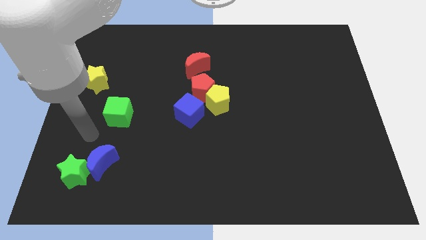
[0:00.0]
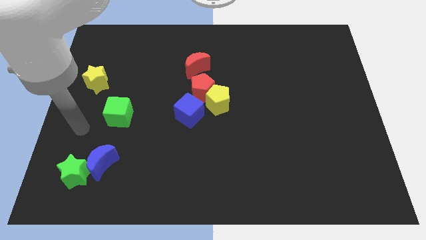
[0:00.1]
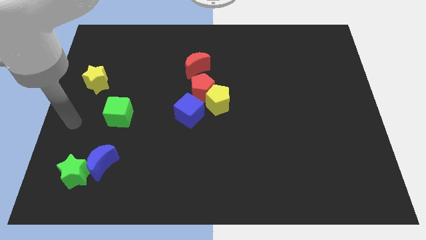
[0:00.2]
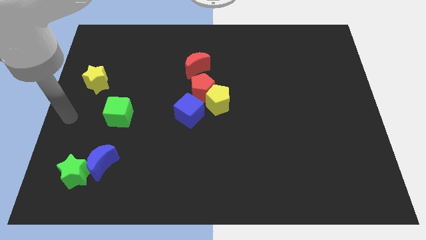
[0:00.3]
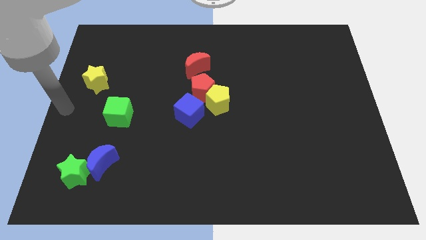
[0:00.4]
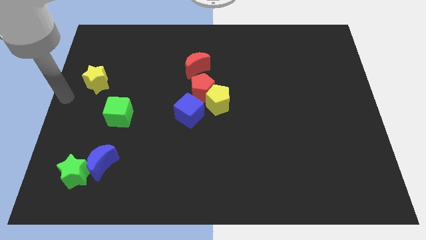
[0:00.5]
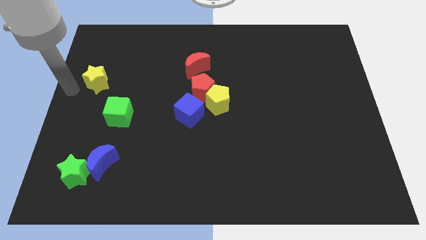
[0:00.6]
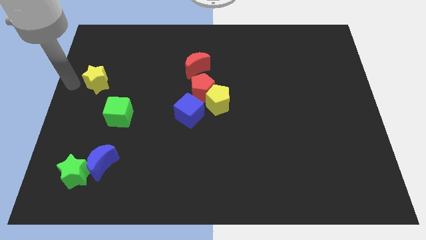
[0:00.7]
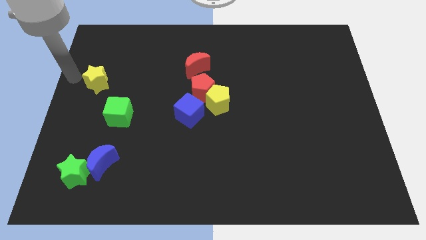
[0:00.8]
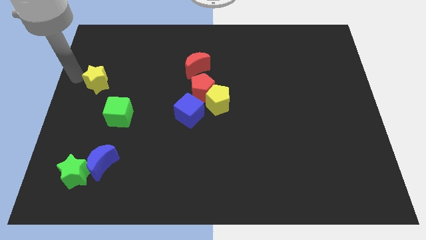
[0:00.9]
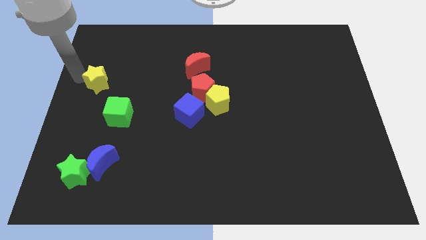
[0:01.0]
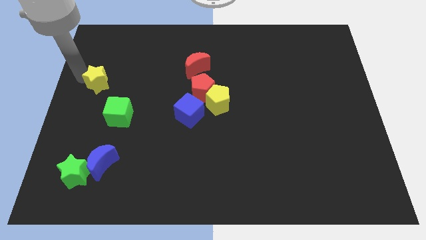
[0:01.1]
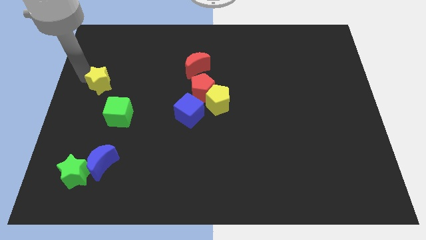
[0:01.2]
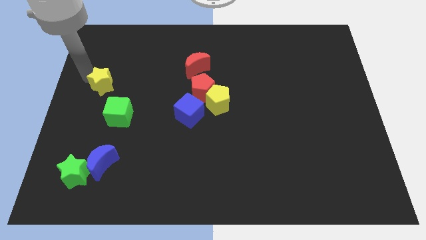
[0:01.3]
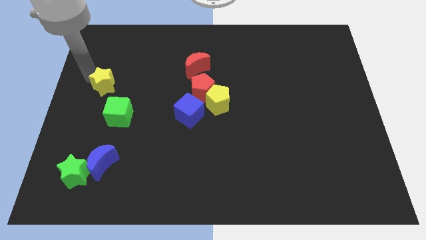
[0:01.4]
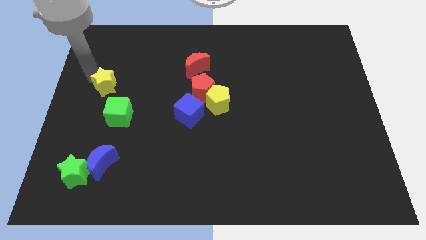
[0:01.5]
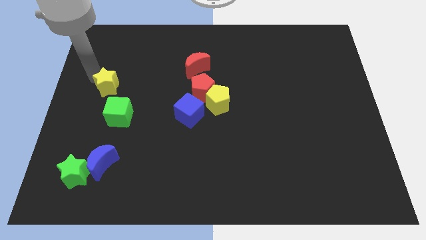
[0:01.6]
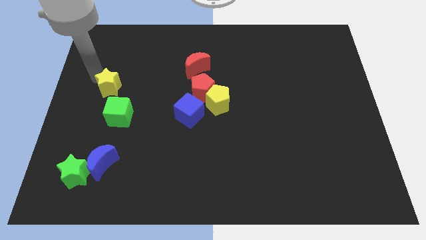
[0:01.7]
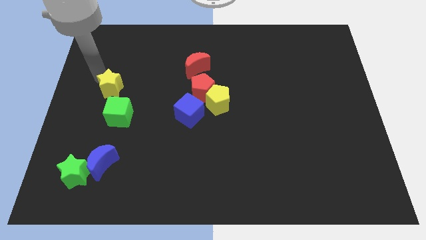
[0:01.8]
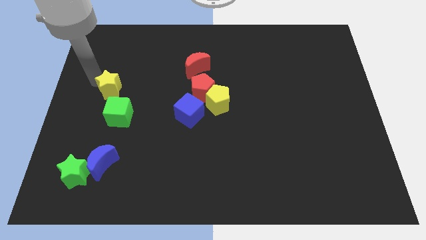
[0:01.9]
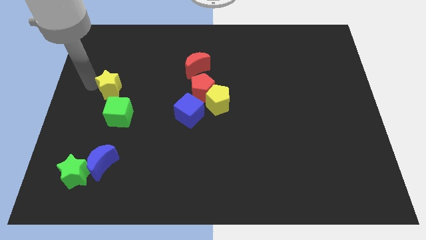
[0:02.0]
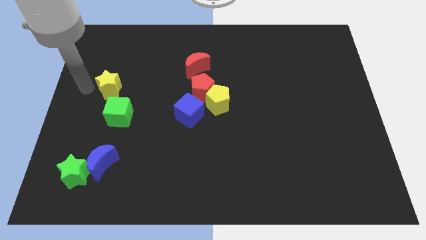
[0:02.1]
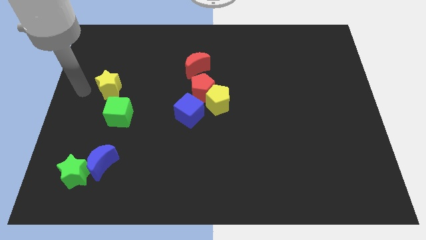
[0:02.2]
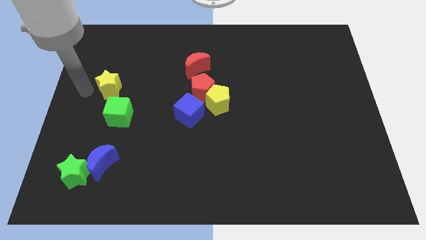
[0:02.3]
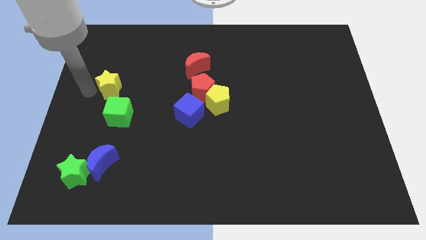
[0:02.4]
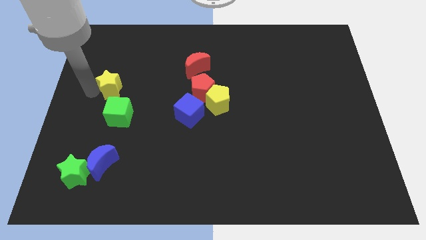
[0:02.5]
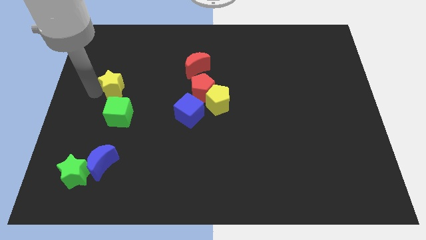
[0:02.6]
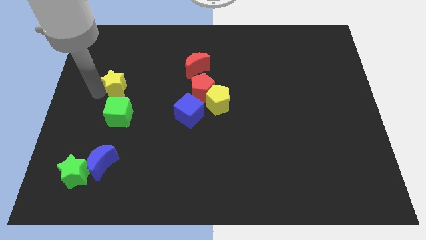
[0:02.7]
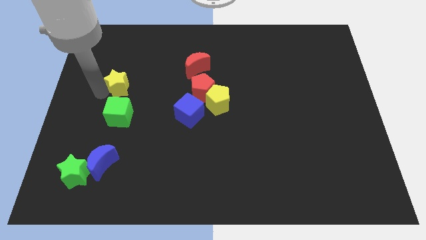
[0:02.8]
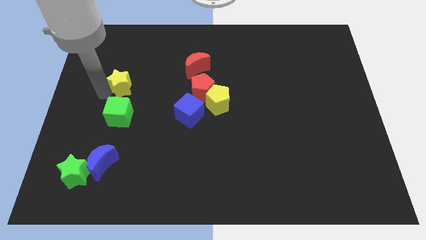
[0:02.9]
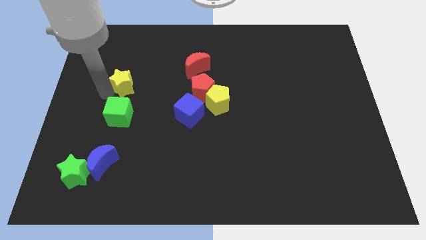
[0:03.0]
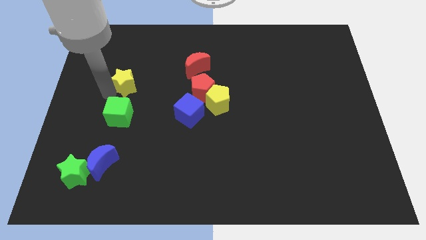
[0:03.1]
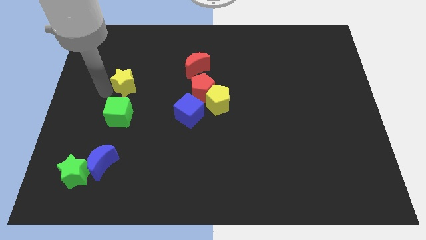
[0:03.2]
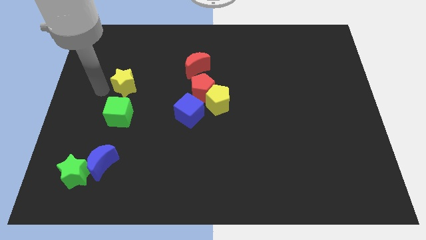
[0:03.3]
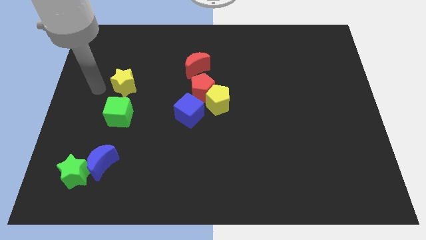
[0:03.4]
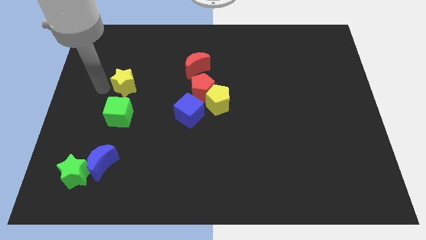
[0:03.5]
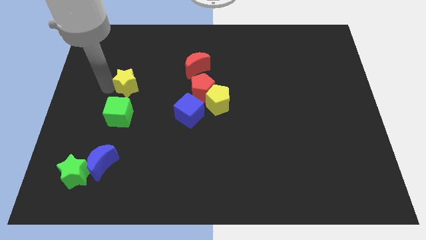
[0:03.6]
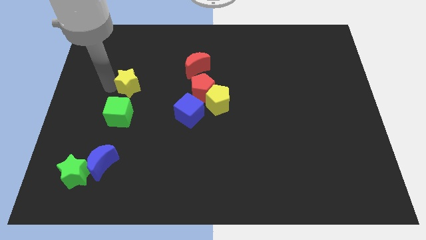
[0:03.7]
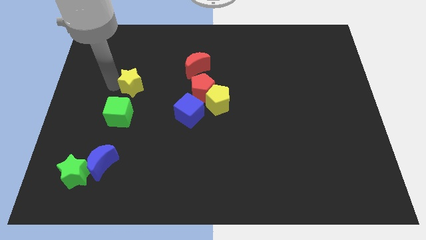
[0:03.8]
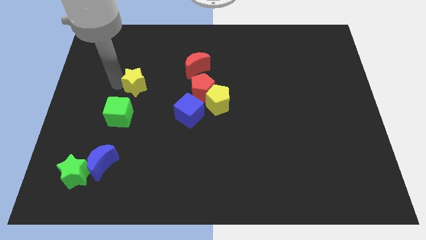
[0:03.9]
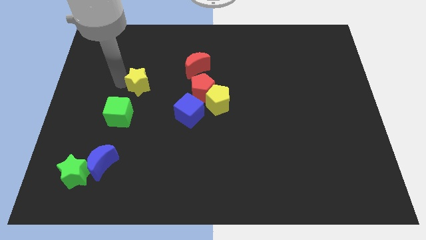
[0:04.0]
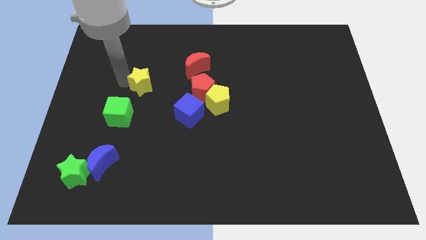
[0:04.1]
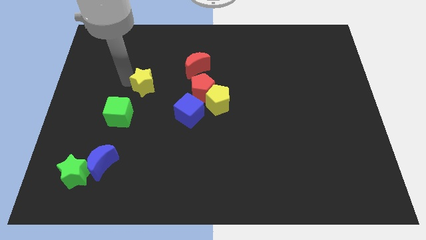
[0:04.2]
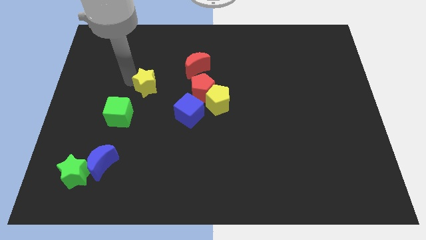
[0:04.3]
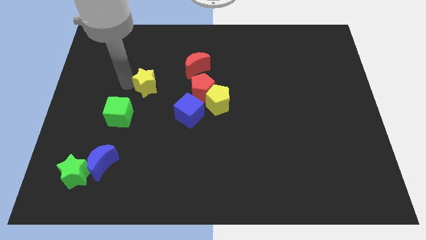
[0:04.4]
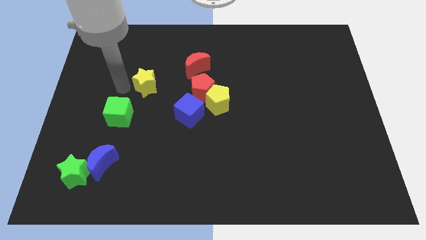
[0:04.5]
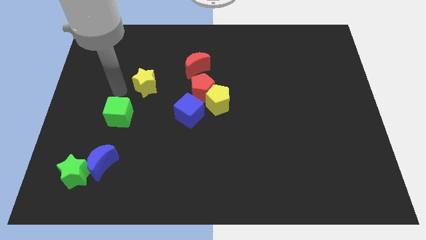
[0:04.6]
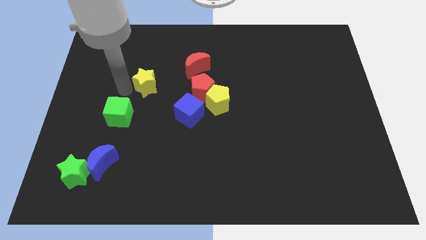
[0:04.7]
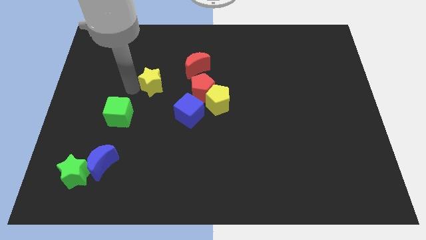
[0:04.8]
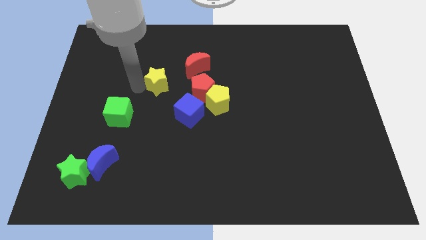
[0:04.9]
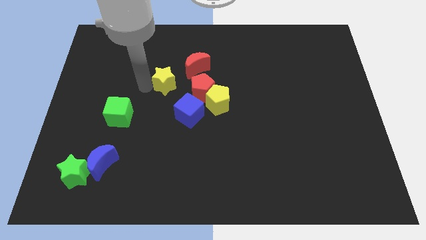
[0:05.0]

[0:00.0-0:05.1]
put the yellow star diagonally up and to the left of the red pentagon

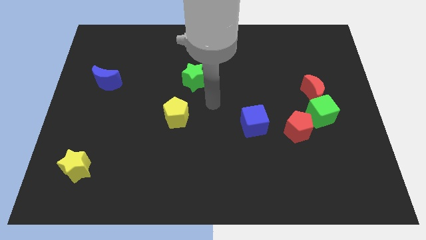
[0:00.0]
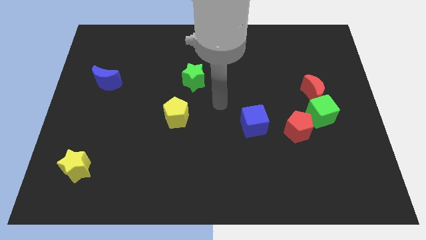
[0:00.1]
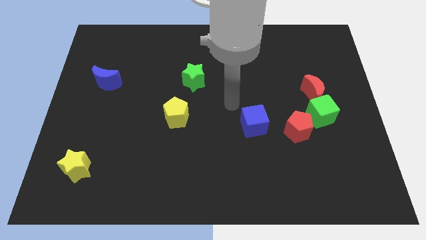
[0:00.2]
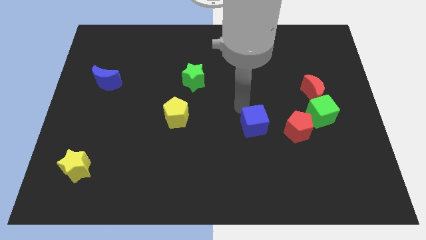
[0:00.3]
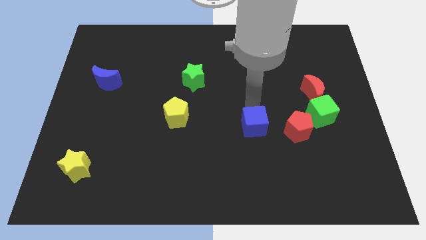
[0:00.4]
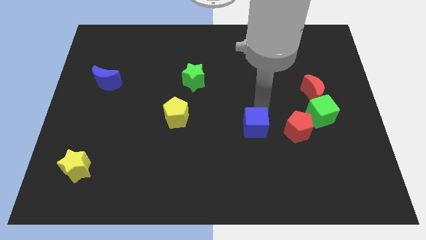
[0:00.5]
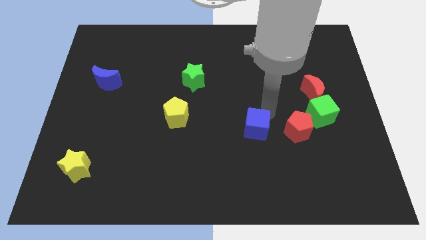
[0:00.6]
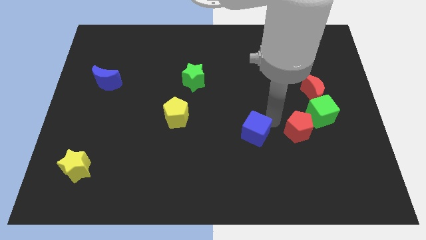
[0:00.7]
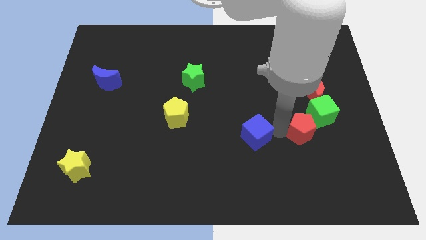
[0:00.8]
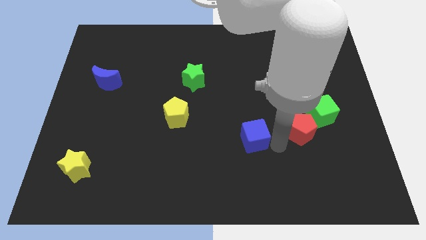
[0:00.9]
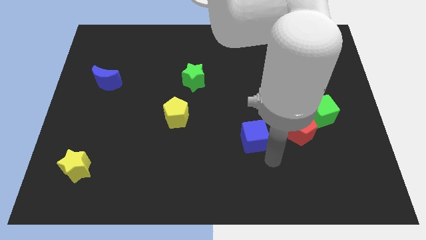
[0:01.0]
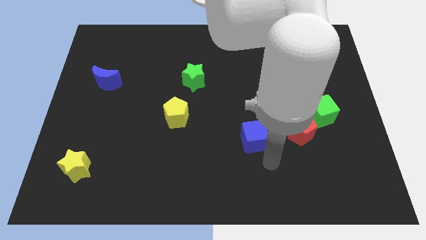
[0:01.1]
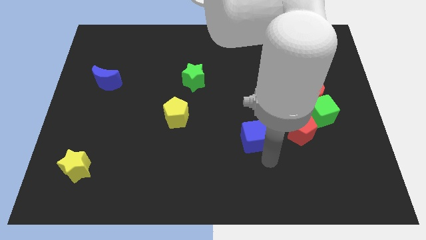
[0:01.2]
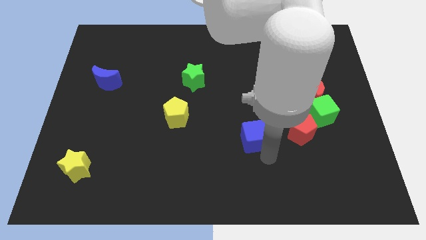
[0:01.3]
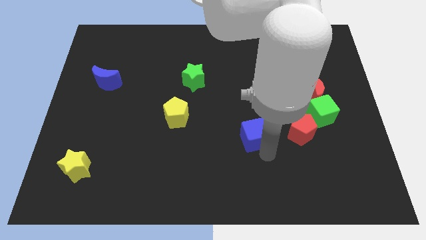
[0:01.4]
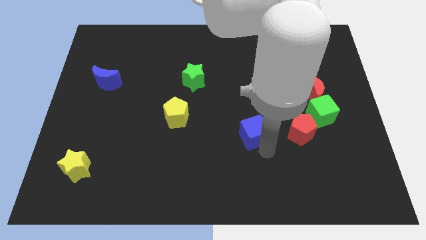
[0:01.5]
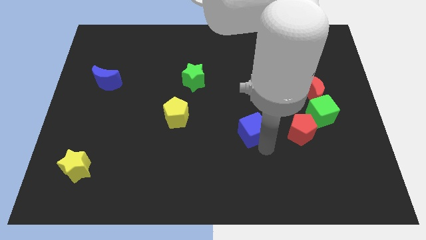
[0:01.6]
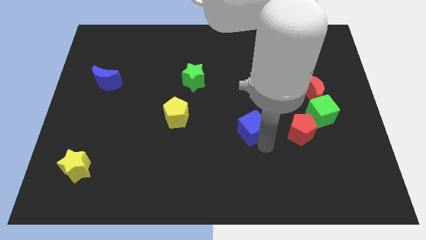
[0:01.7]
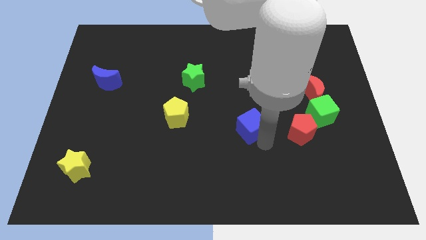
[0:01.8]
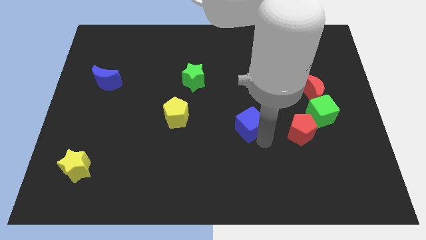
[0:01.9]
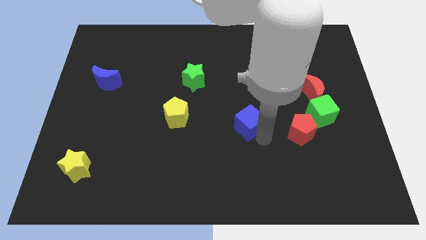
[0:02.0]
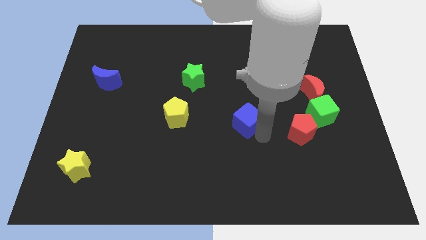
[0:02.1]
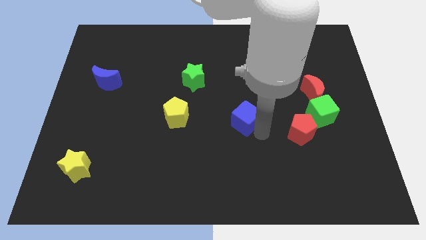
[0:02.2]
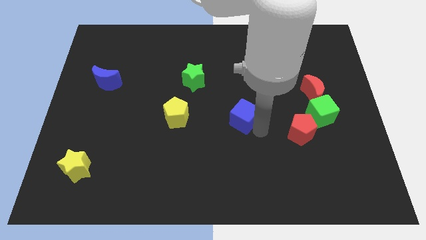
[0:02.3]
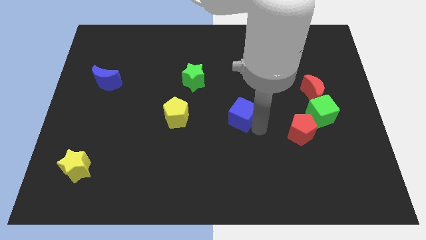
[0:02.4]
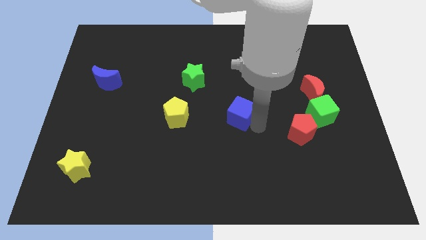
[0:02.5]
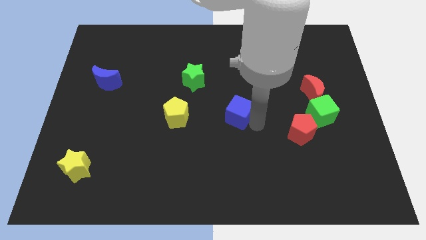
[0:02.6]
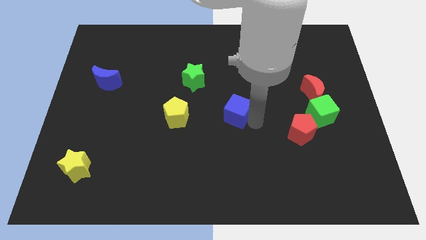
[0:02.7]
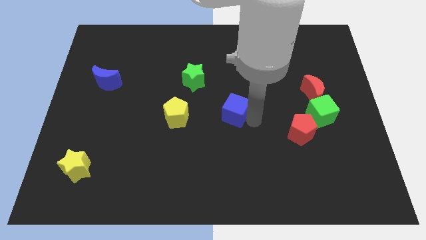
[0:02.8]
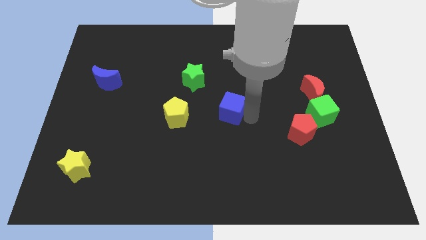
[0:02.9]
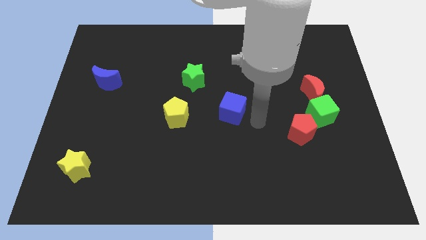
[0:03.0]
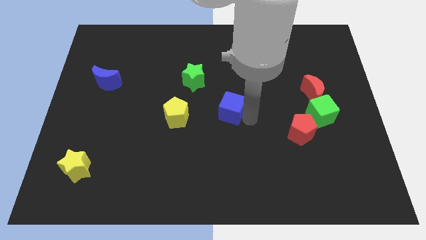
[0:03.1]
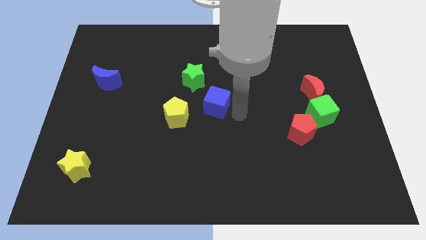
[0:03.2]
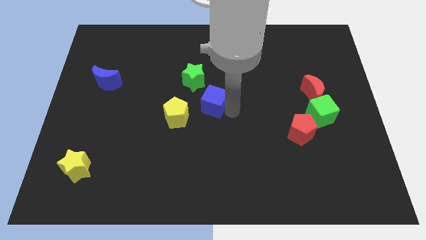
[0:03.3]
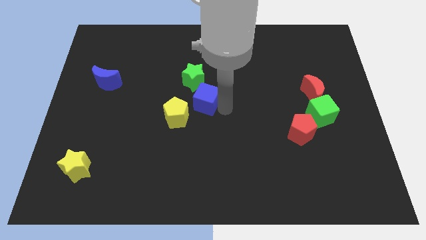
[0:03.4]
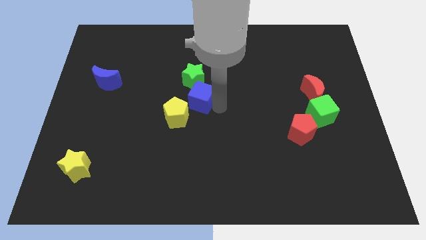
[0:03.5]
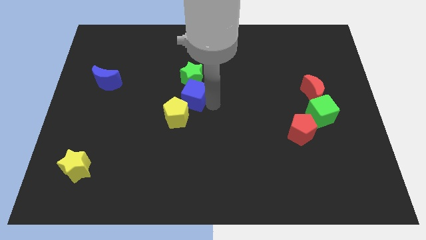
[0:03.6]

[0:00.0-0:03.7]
push the blue cube to the bottom left side of the green star
